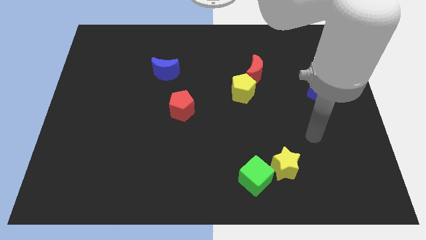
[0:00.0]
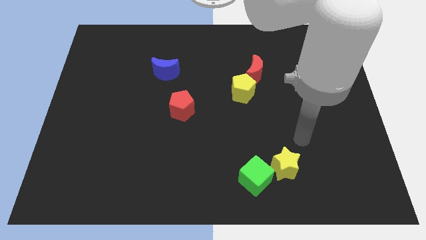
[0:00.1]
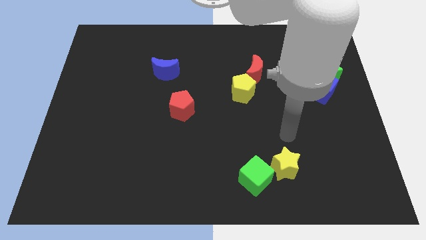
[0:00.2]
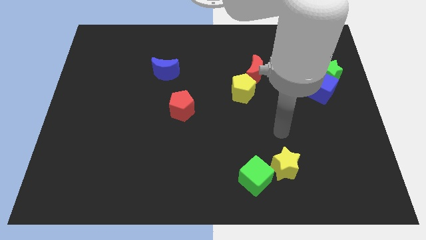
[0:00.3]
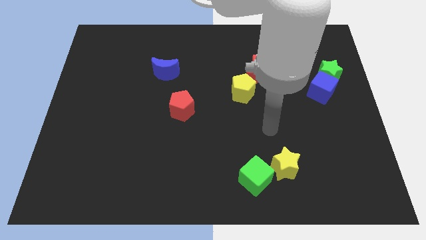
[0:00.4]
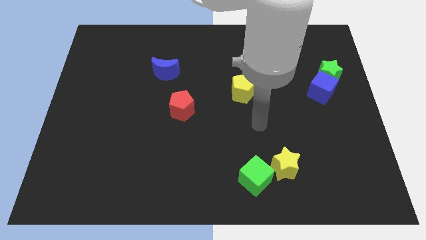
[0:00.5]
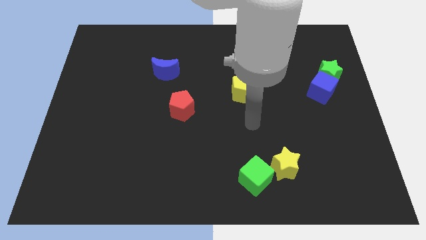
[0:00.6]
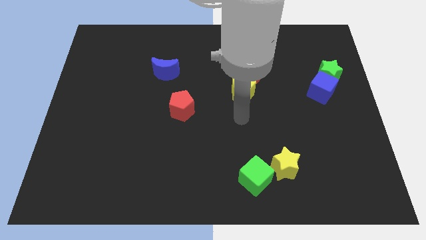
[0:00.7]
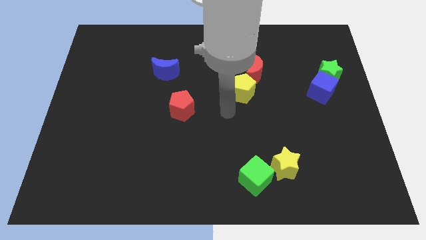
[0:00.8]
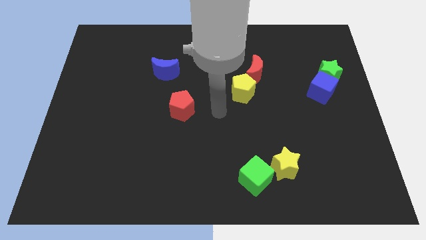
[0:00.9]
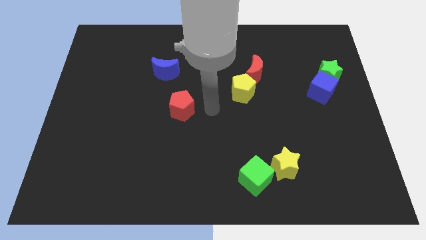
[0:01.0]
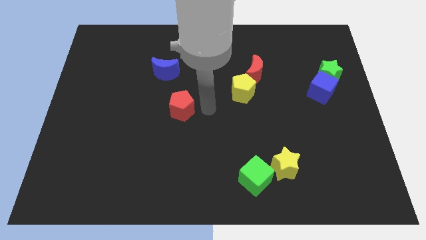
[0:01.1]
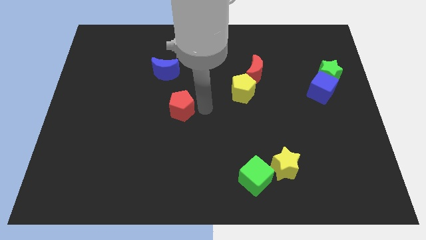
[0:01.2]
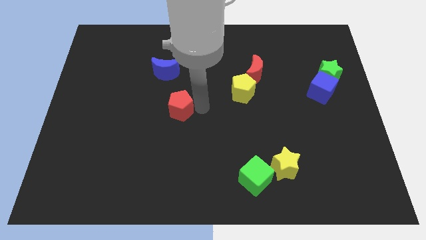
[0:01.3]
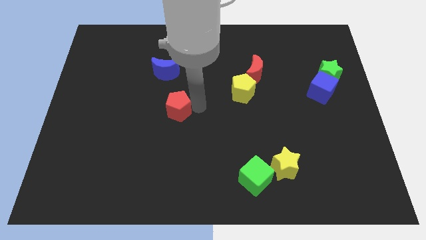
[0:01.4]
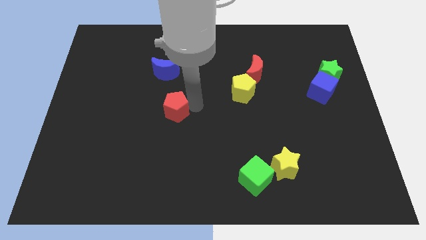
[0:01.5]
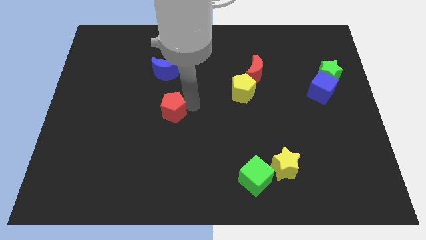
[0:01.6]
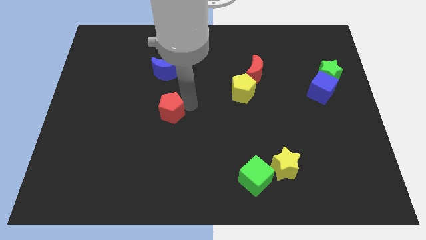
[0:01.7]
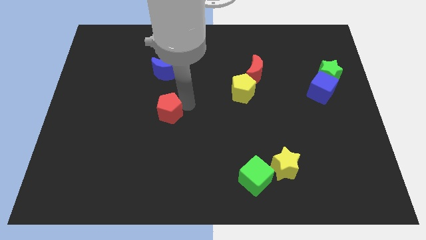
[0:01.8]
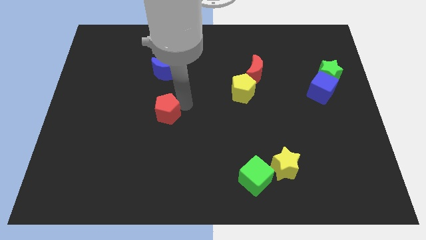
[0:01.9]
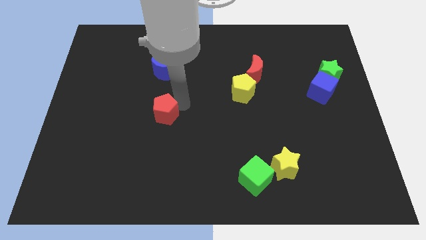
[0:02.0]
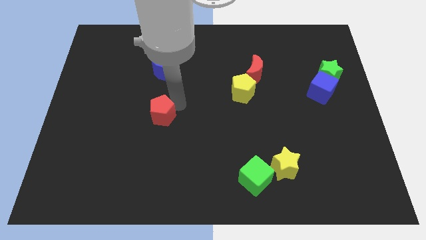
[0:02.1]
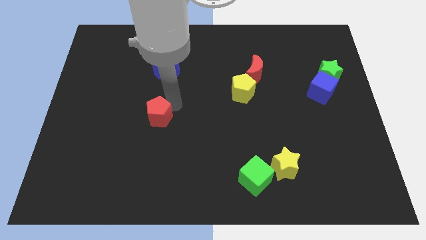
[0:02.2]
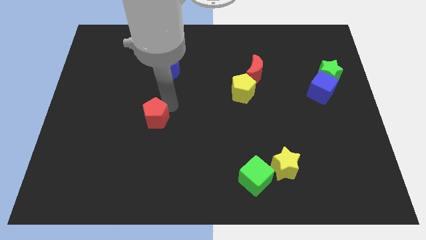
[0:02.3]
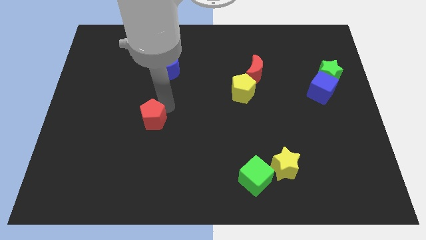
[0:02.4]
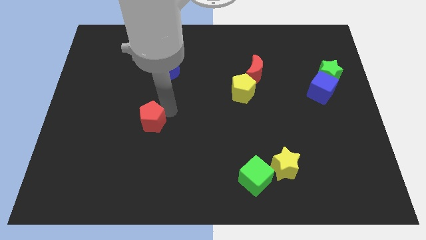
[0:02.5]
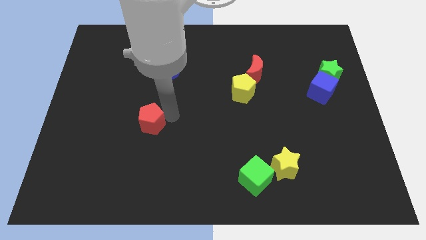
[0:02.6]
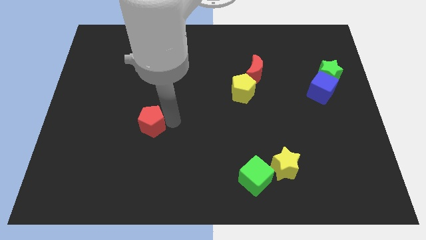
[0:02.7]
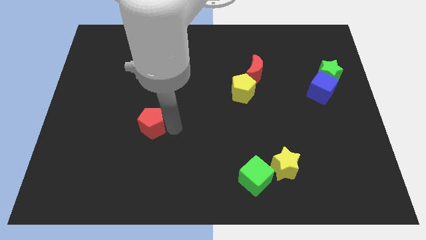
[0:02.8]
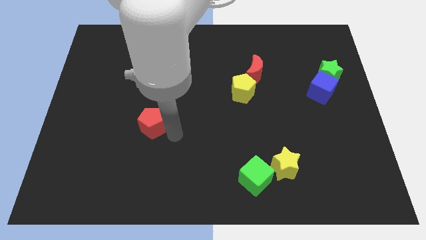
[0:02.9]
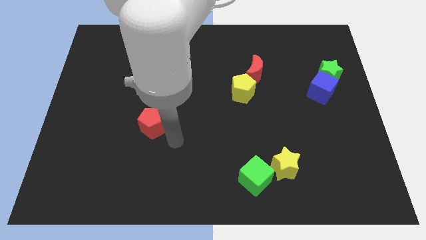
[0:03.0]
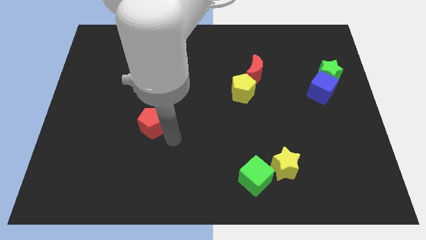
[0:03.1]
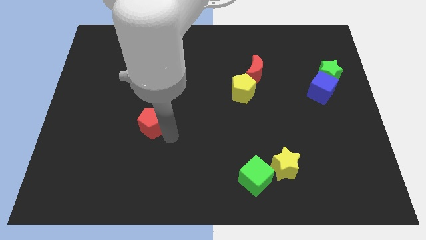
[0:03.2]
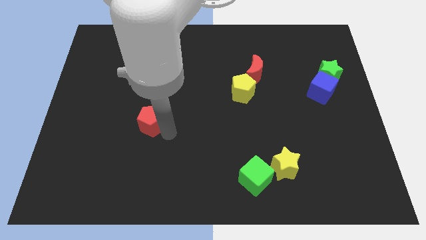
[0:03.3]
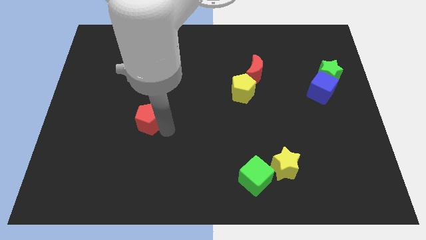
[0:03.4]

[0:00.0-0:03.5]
slide the red pentagon a little to the left

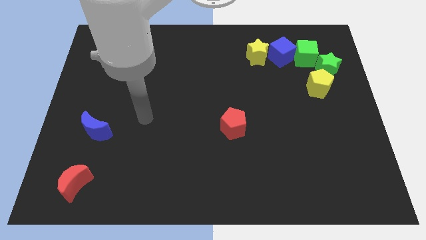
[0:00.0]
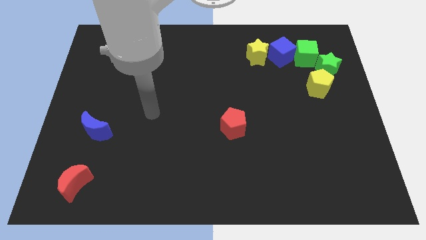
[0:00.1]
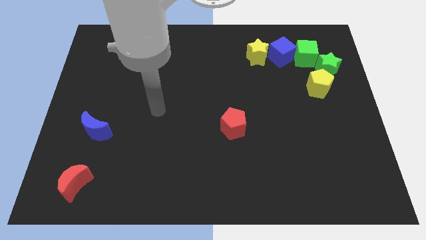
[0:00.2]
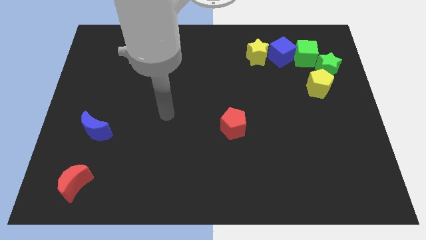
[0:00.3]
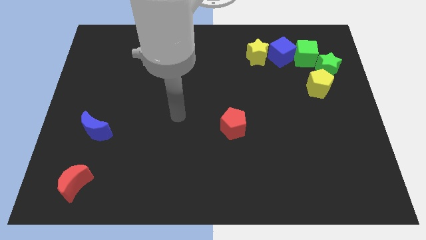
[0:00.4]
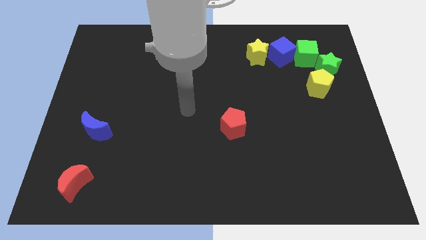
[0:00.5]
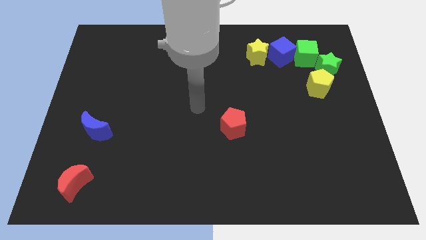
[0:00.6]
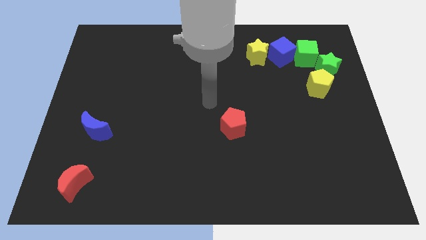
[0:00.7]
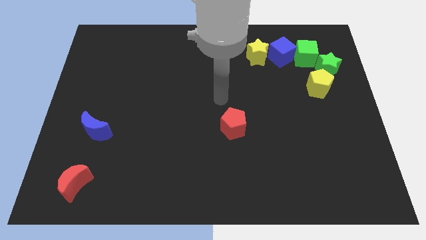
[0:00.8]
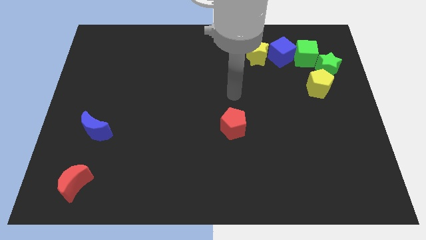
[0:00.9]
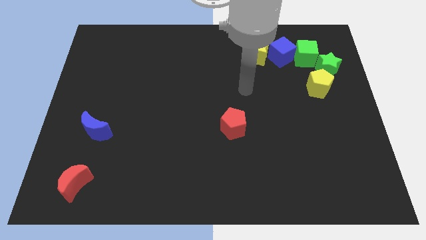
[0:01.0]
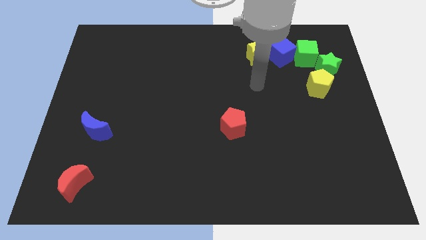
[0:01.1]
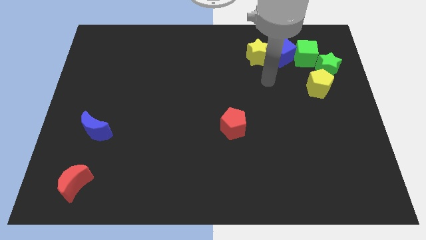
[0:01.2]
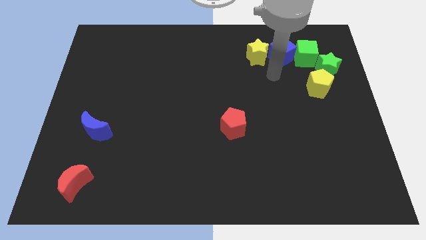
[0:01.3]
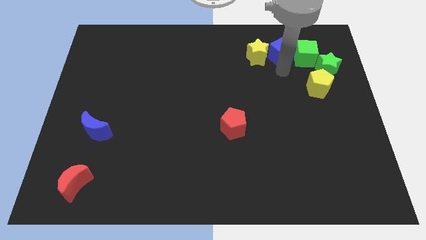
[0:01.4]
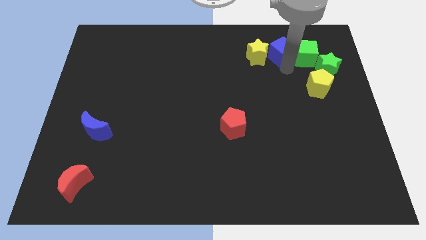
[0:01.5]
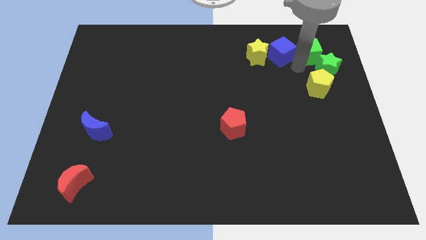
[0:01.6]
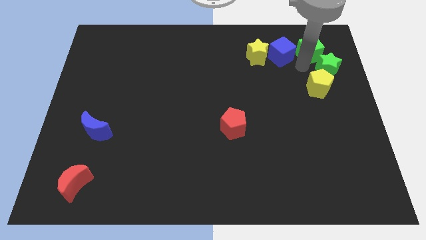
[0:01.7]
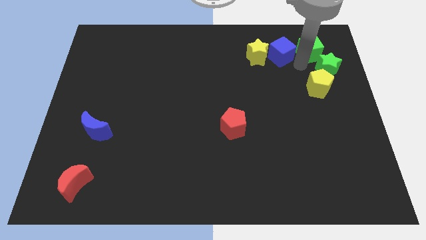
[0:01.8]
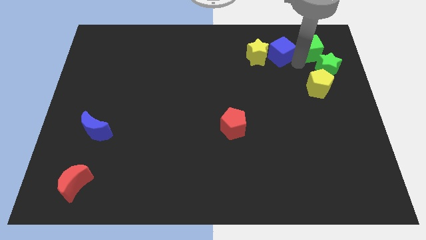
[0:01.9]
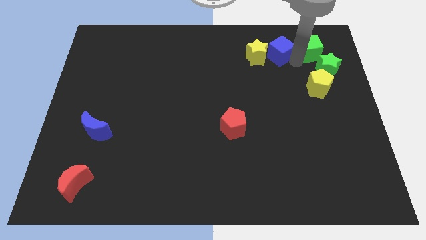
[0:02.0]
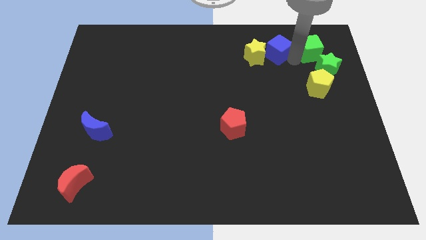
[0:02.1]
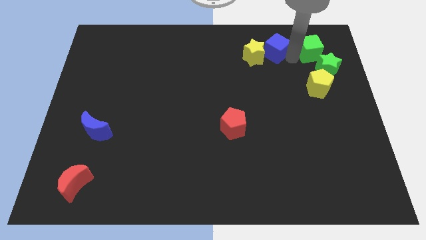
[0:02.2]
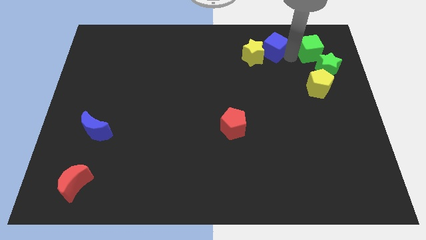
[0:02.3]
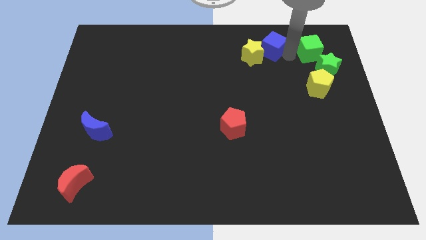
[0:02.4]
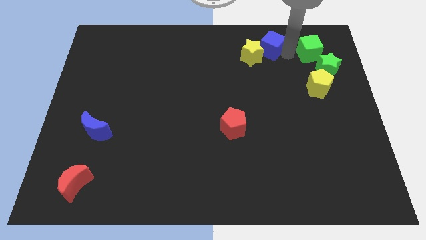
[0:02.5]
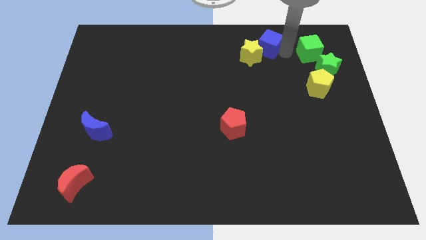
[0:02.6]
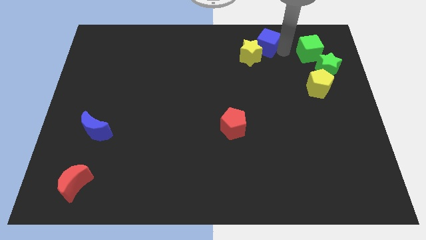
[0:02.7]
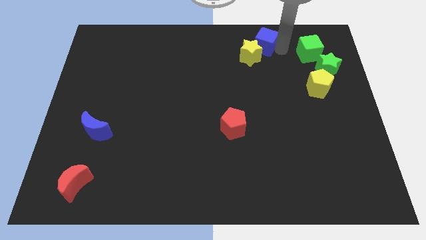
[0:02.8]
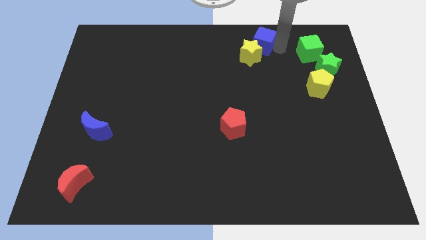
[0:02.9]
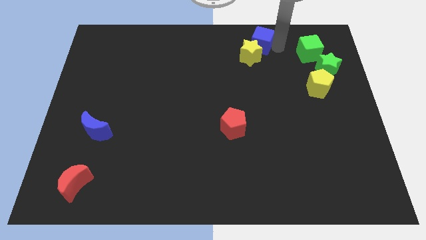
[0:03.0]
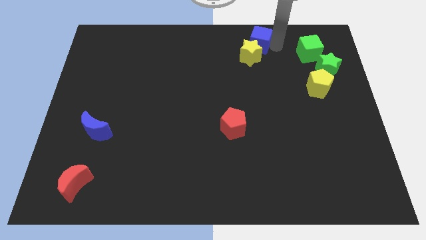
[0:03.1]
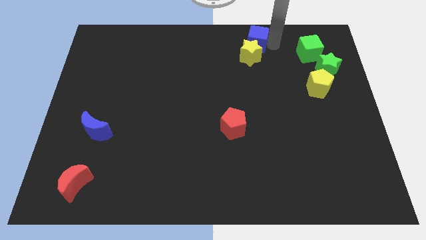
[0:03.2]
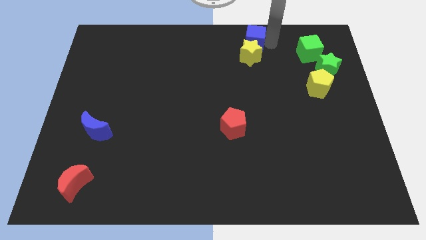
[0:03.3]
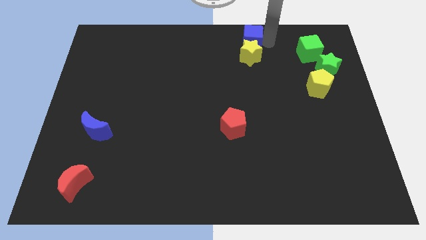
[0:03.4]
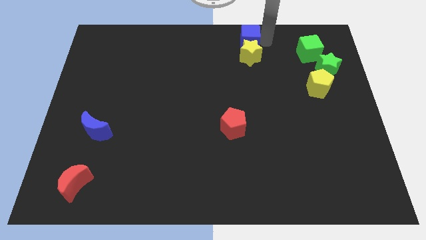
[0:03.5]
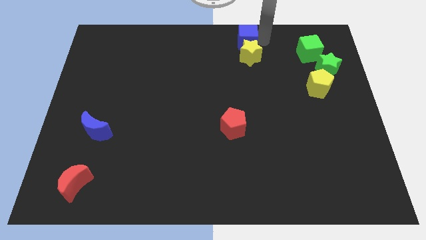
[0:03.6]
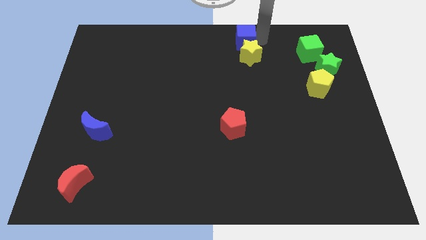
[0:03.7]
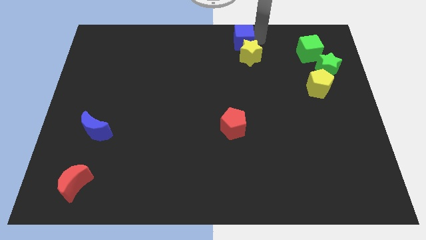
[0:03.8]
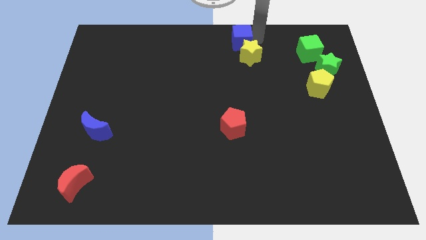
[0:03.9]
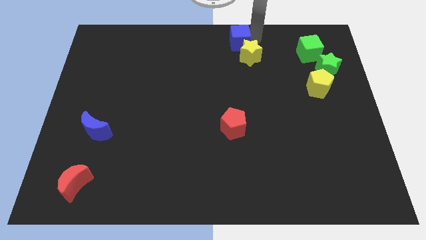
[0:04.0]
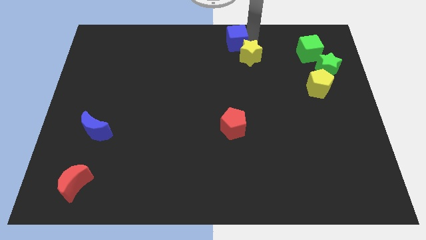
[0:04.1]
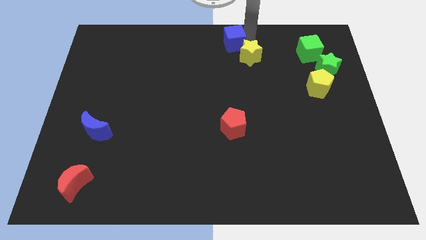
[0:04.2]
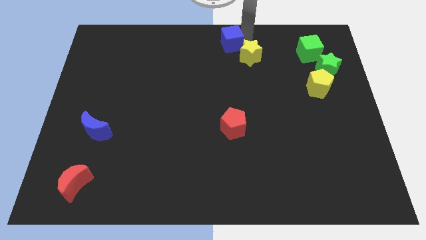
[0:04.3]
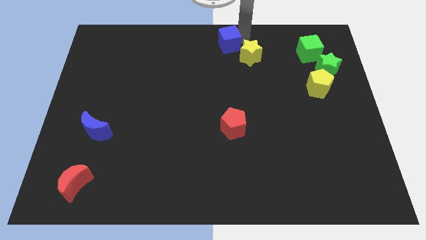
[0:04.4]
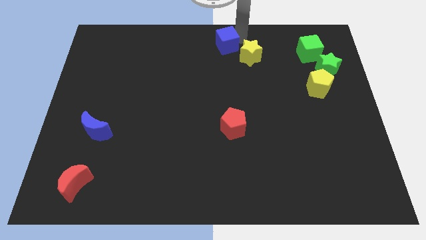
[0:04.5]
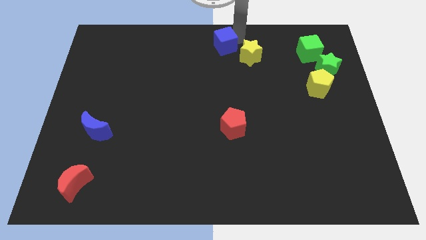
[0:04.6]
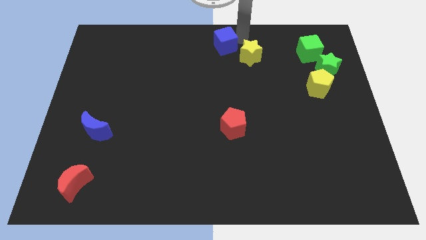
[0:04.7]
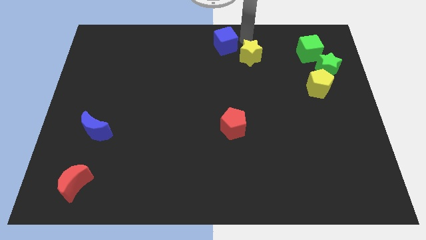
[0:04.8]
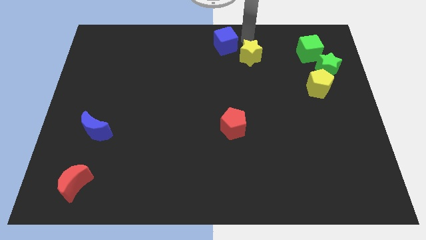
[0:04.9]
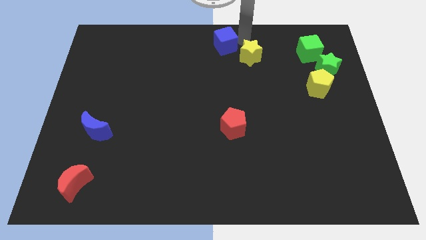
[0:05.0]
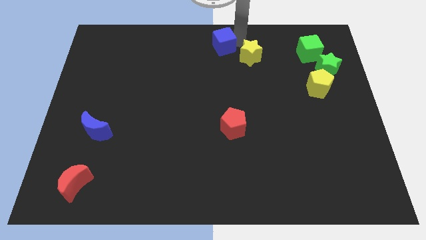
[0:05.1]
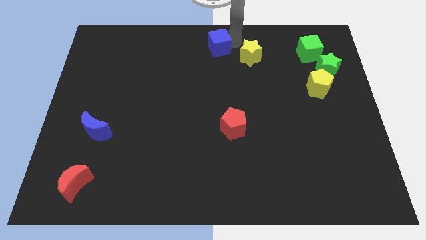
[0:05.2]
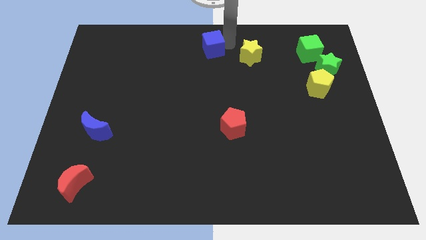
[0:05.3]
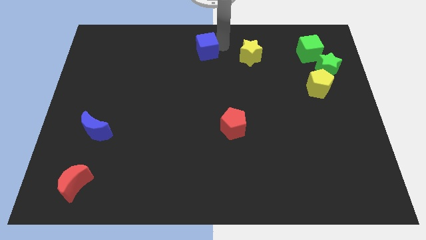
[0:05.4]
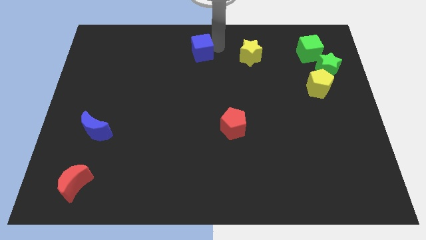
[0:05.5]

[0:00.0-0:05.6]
slide the blue cube left
